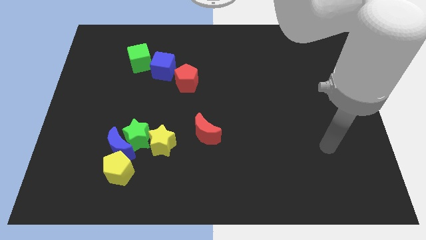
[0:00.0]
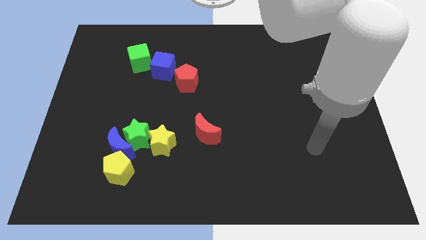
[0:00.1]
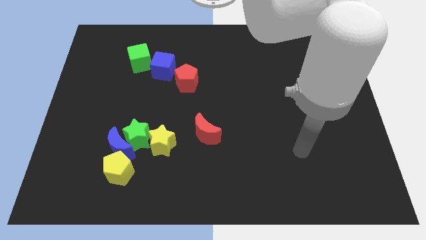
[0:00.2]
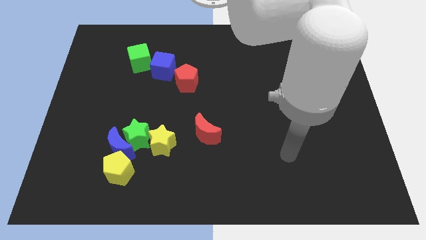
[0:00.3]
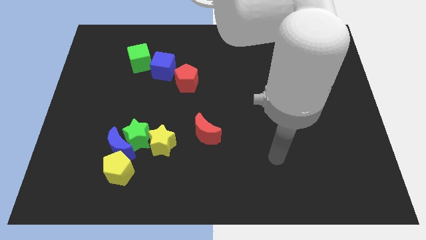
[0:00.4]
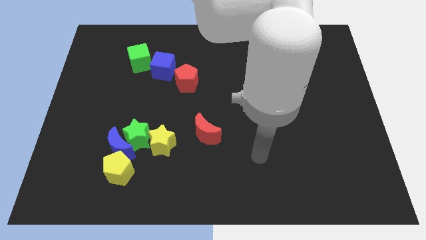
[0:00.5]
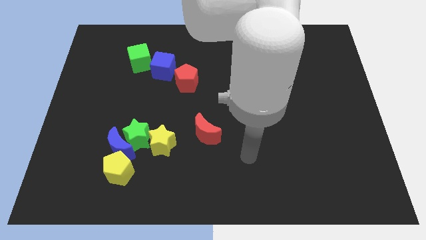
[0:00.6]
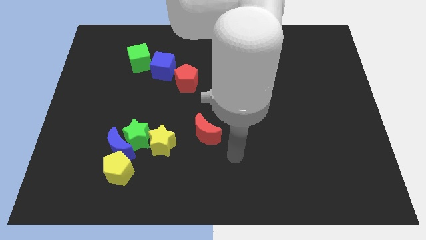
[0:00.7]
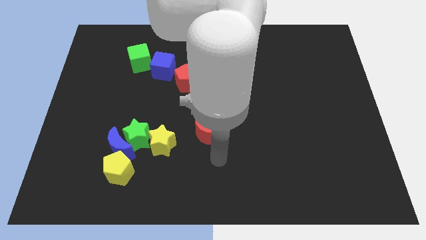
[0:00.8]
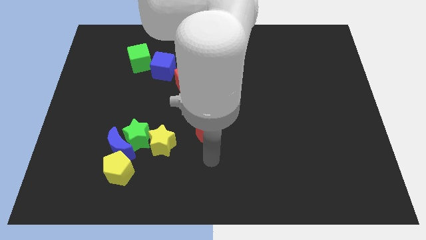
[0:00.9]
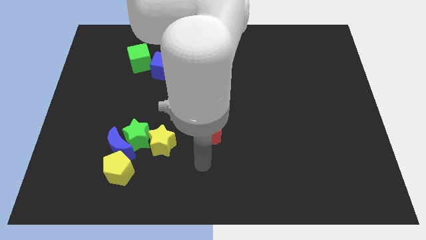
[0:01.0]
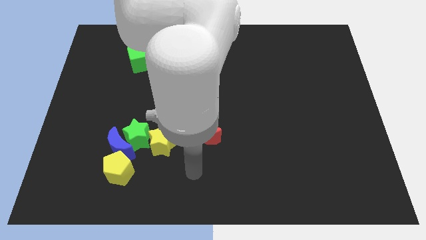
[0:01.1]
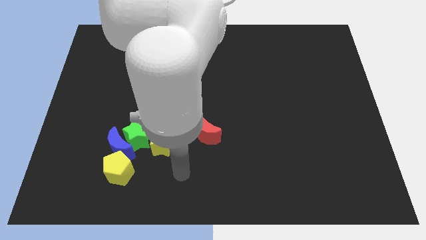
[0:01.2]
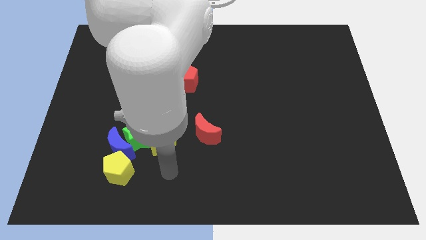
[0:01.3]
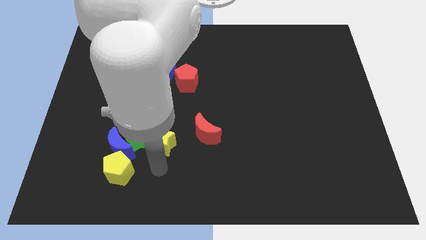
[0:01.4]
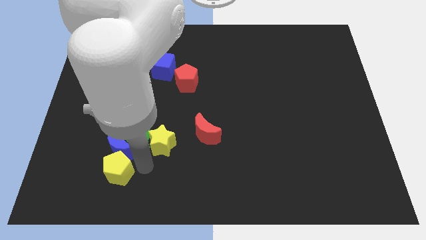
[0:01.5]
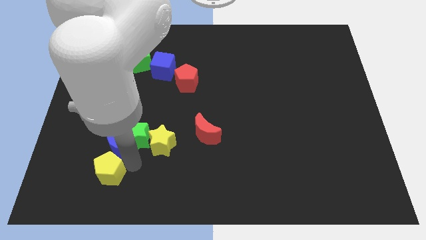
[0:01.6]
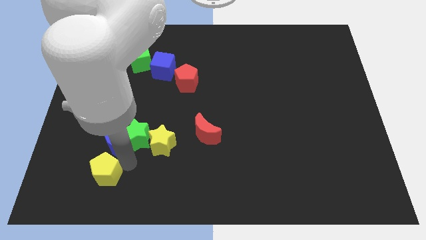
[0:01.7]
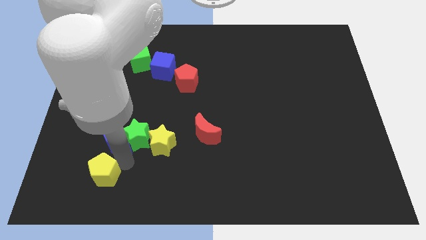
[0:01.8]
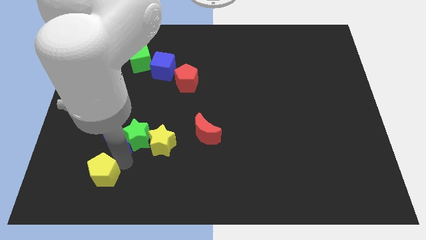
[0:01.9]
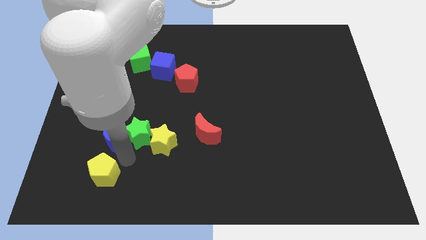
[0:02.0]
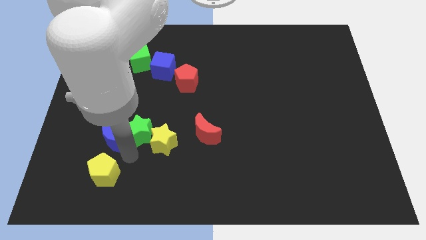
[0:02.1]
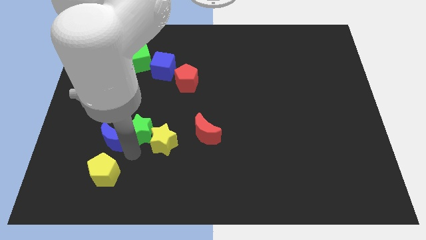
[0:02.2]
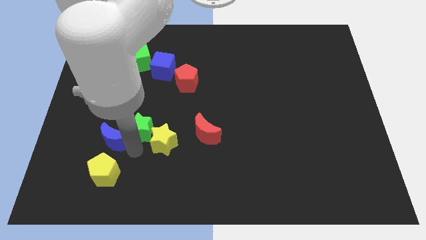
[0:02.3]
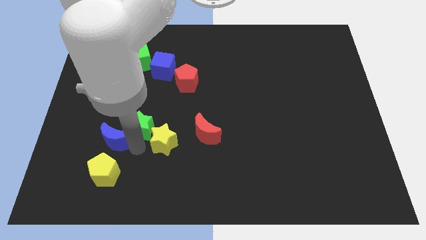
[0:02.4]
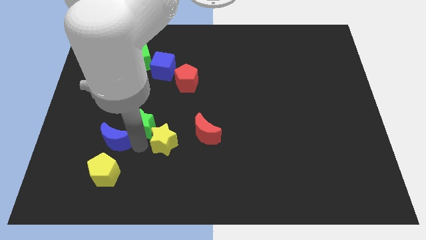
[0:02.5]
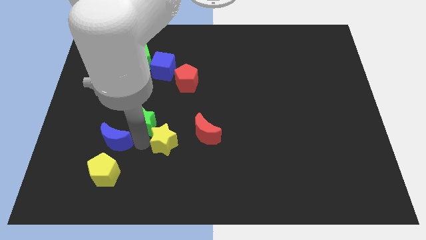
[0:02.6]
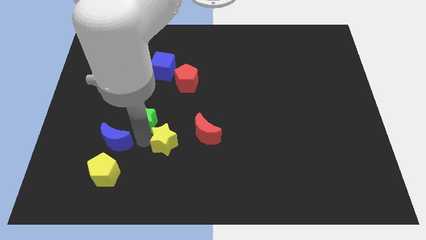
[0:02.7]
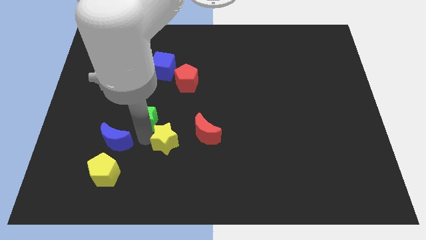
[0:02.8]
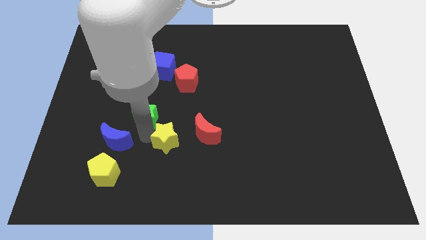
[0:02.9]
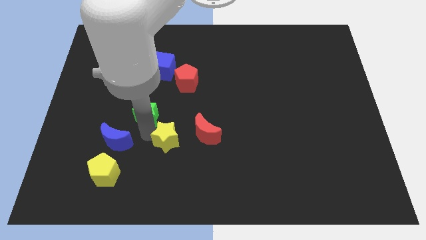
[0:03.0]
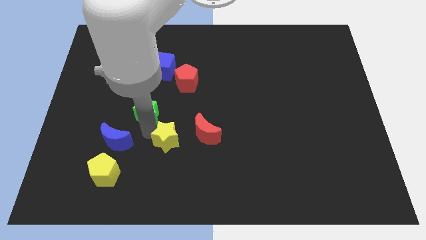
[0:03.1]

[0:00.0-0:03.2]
separate the green star from the blue moon, yellow star, and yellow pentagon

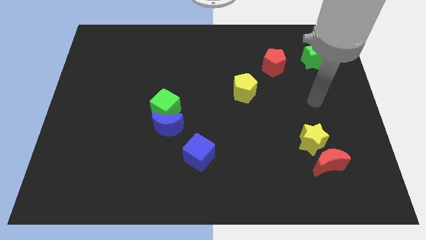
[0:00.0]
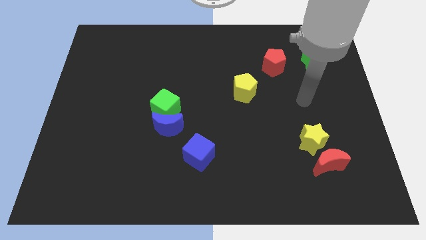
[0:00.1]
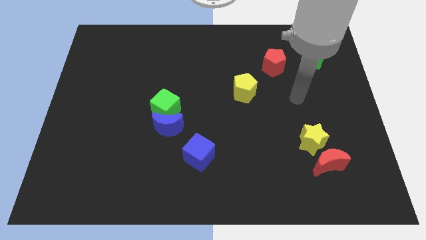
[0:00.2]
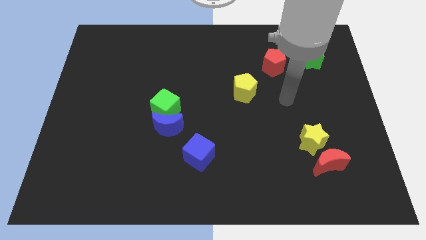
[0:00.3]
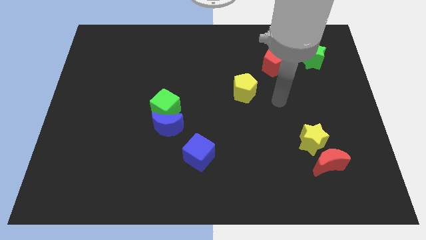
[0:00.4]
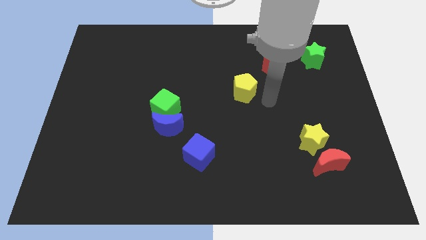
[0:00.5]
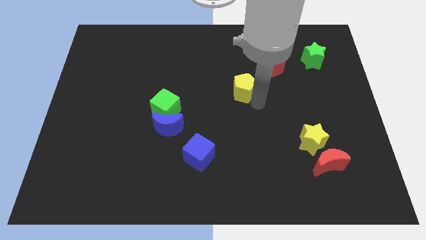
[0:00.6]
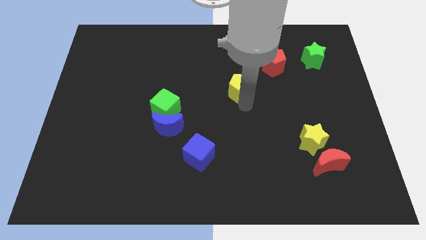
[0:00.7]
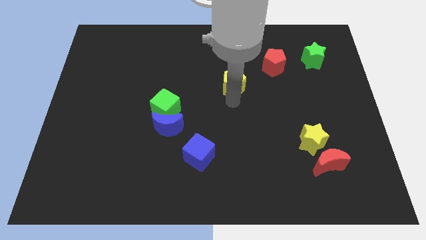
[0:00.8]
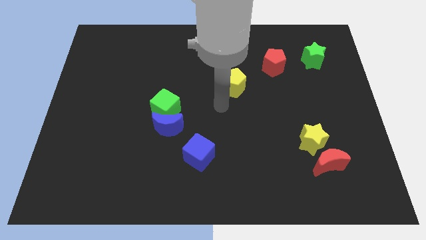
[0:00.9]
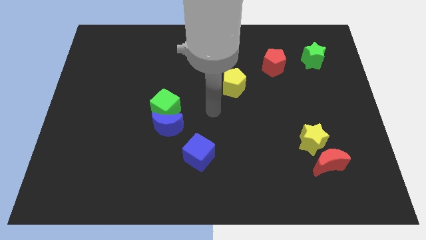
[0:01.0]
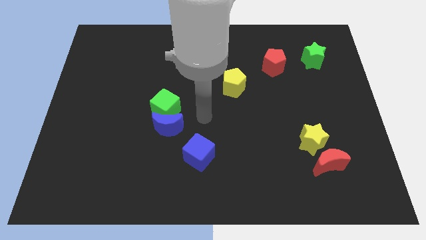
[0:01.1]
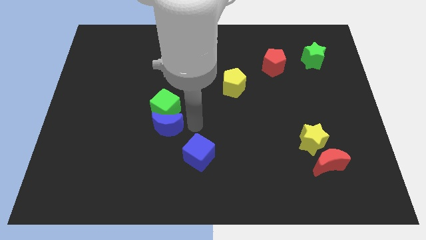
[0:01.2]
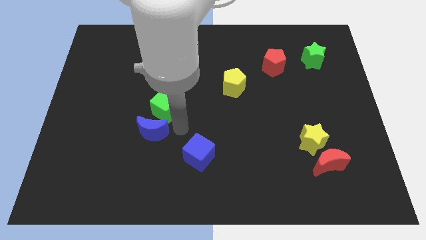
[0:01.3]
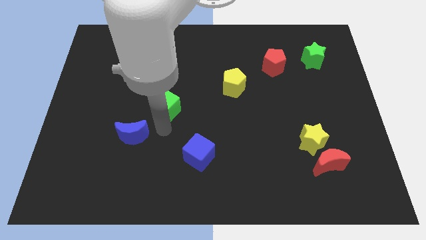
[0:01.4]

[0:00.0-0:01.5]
move the green cube away from the blue moon

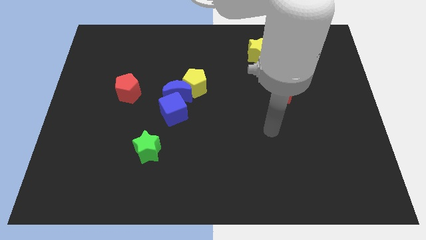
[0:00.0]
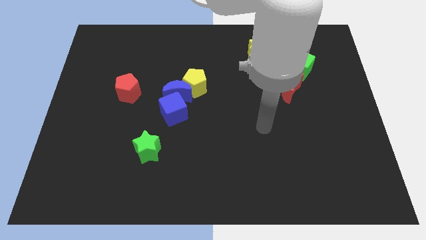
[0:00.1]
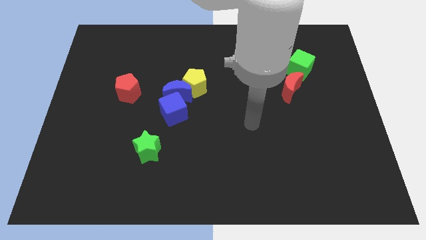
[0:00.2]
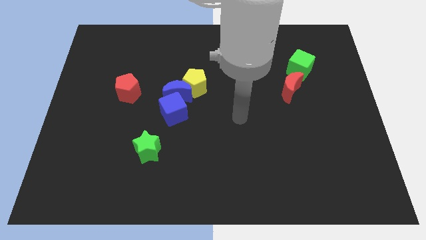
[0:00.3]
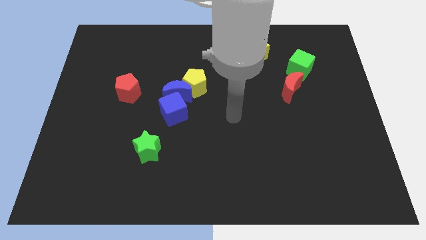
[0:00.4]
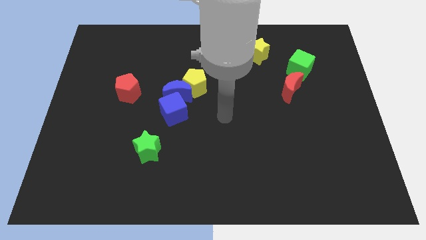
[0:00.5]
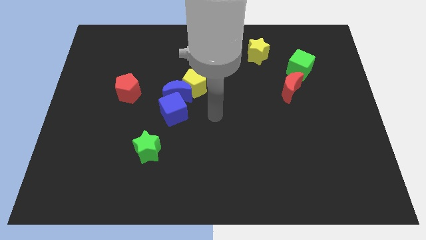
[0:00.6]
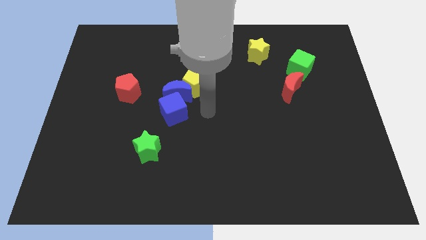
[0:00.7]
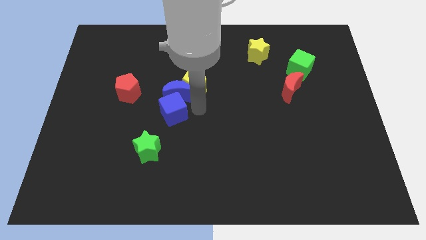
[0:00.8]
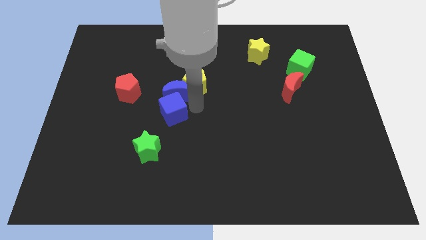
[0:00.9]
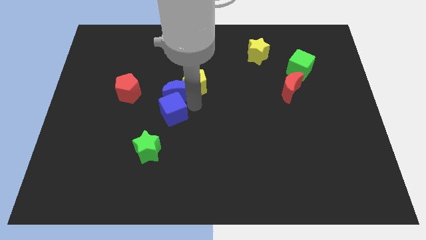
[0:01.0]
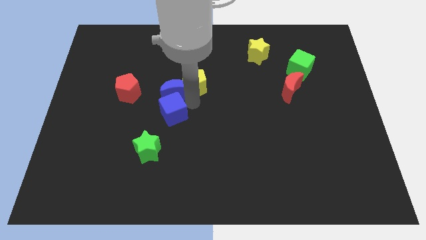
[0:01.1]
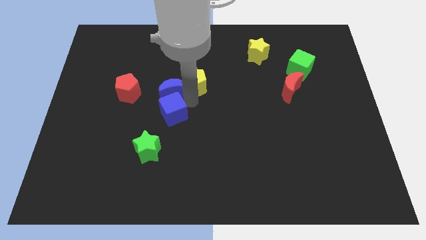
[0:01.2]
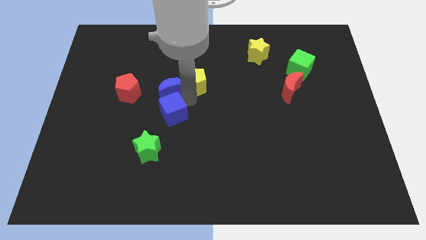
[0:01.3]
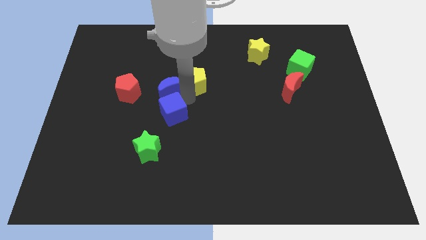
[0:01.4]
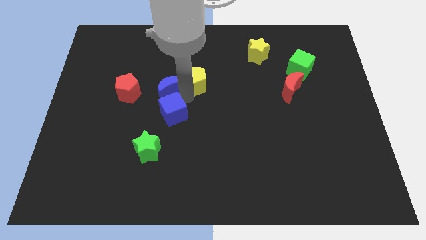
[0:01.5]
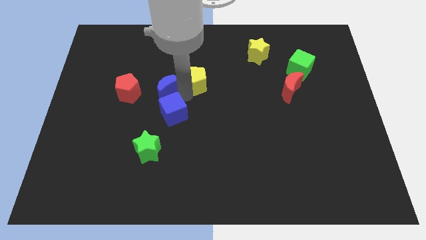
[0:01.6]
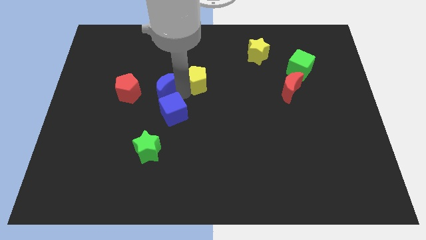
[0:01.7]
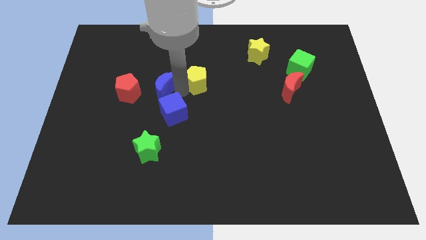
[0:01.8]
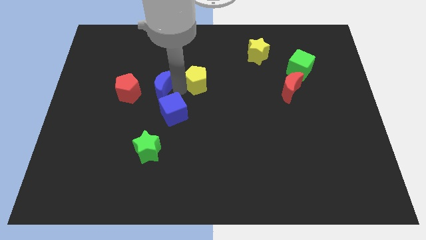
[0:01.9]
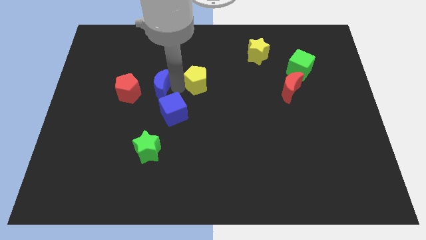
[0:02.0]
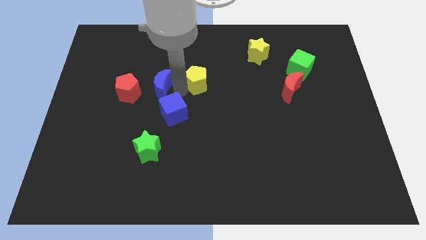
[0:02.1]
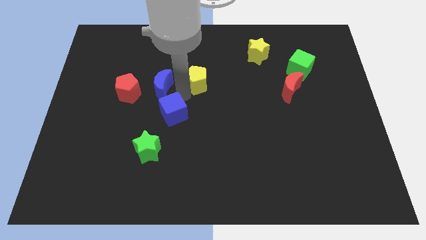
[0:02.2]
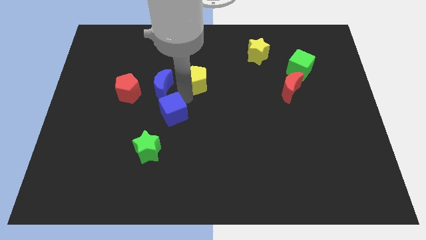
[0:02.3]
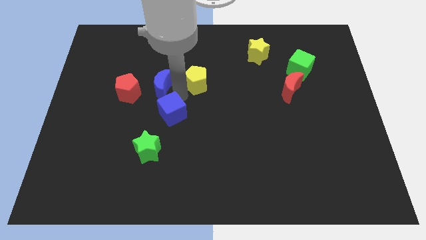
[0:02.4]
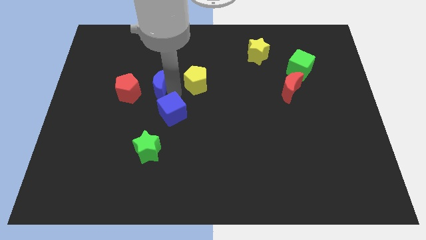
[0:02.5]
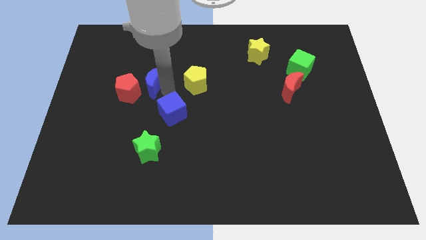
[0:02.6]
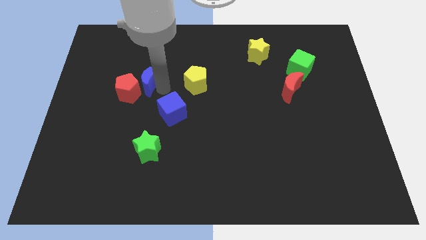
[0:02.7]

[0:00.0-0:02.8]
pull the blue moon apart from the yellow pentagon and blue cube

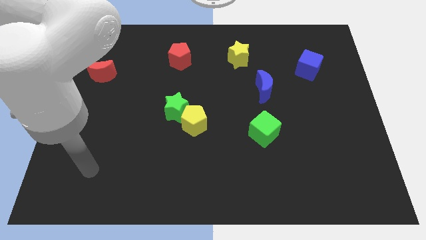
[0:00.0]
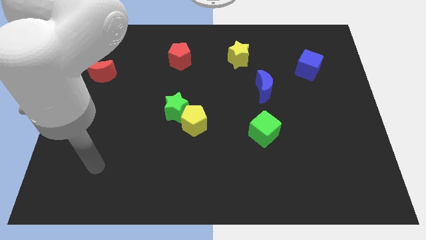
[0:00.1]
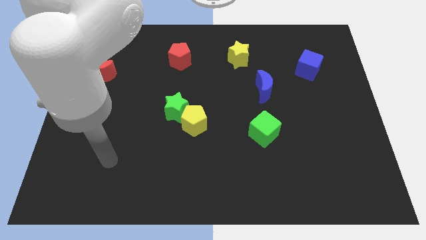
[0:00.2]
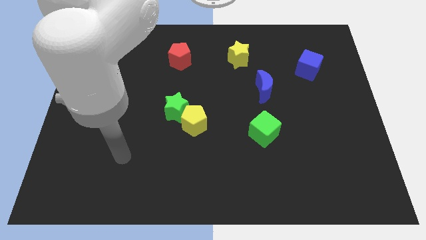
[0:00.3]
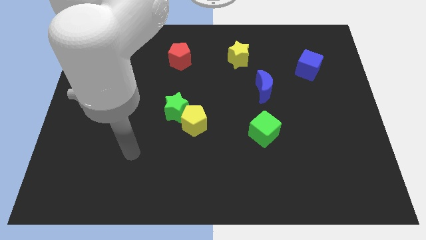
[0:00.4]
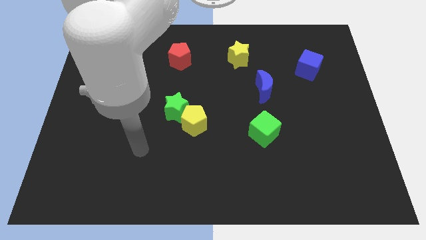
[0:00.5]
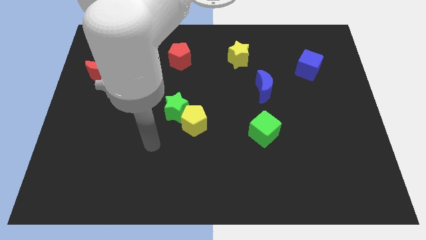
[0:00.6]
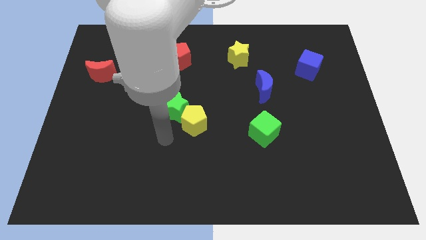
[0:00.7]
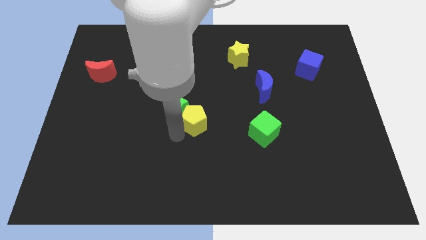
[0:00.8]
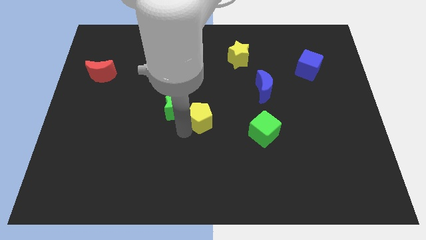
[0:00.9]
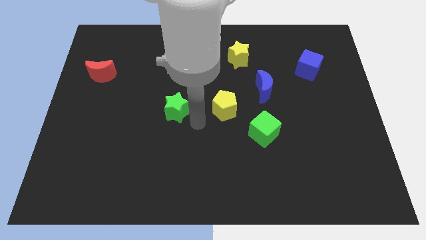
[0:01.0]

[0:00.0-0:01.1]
separate the green star from the yellow pentagon

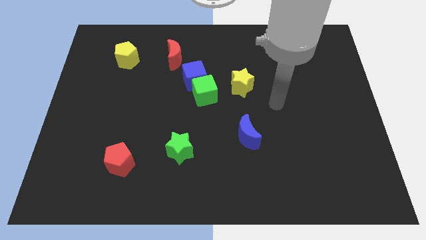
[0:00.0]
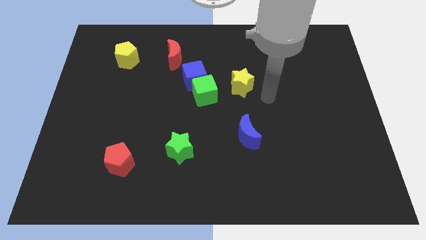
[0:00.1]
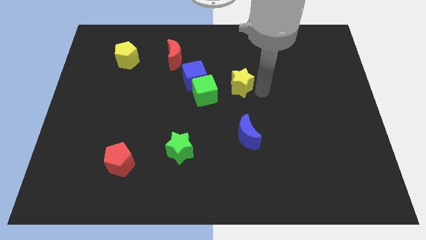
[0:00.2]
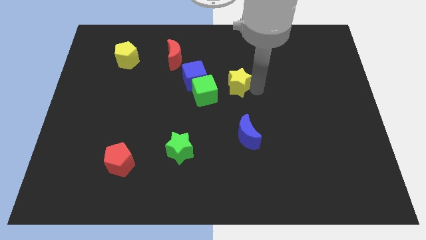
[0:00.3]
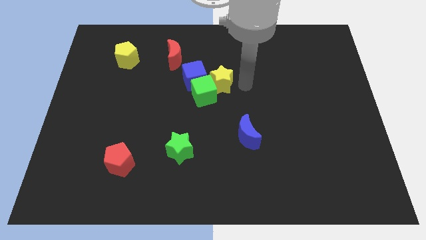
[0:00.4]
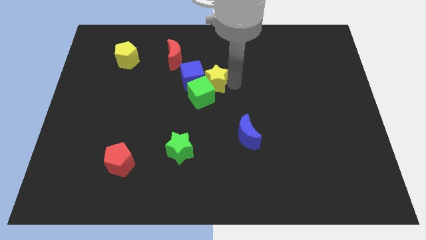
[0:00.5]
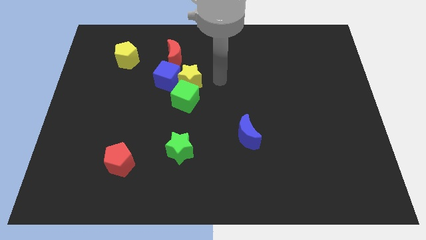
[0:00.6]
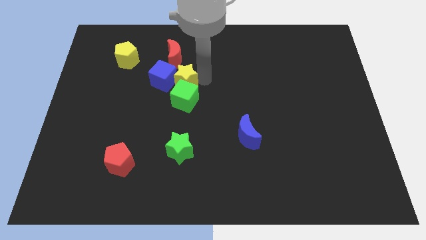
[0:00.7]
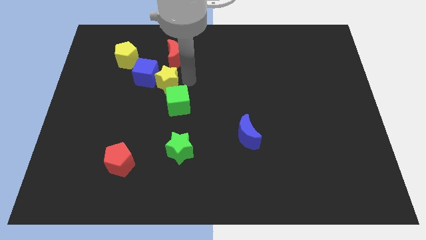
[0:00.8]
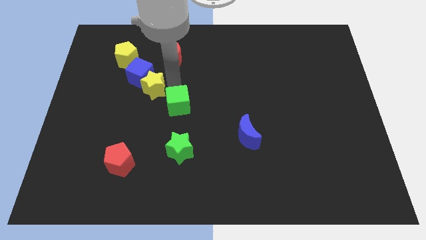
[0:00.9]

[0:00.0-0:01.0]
pull the green cube apart from the blue cube and yellow star
